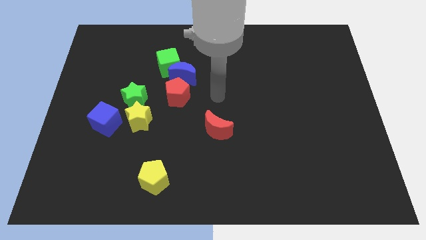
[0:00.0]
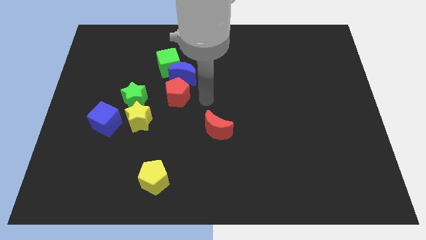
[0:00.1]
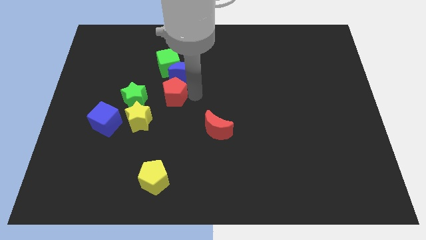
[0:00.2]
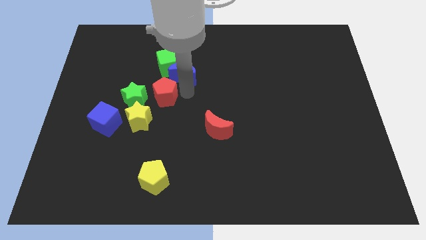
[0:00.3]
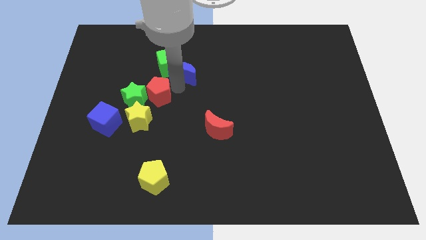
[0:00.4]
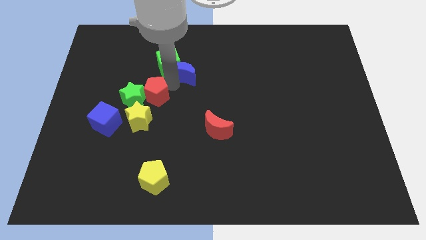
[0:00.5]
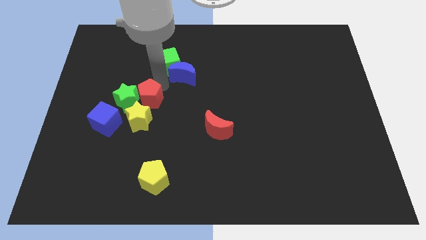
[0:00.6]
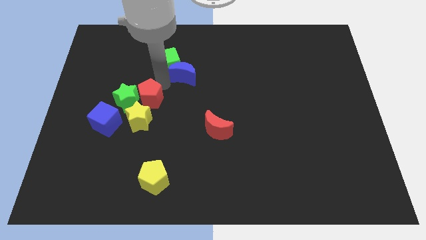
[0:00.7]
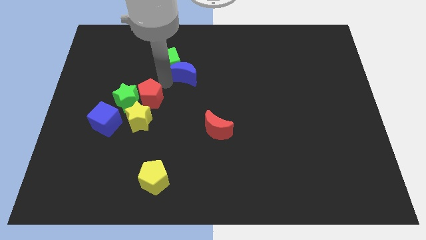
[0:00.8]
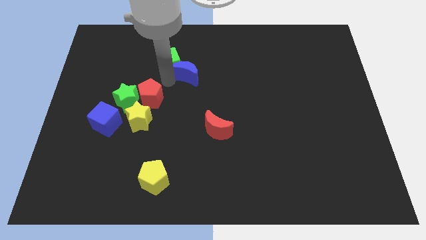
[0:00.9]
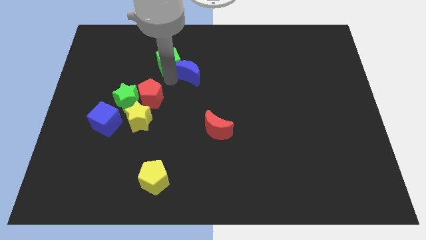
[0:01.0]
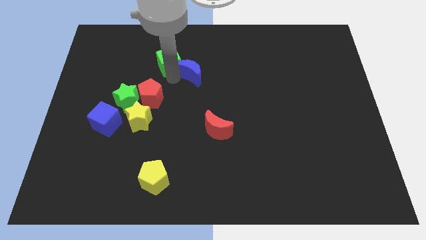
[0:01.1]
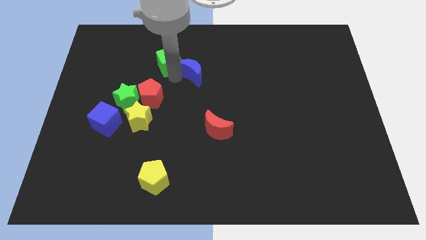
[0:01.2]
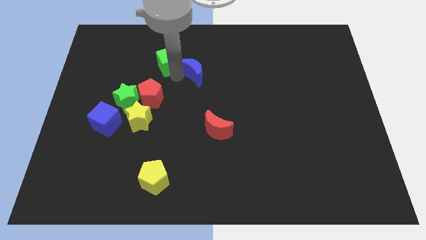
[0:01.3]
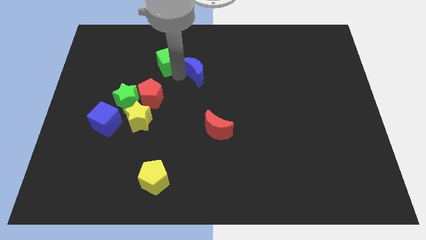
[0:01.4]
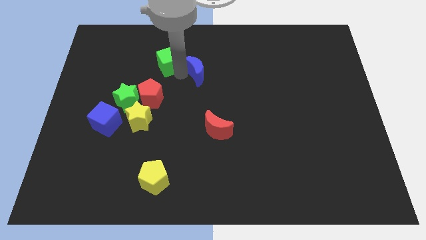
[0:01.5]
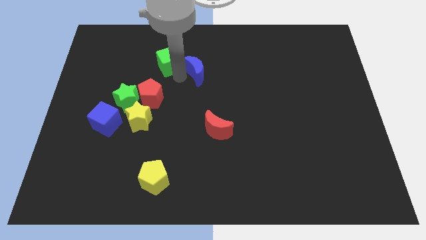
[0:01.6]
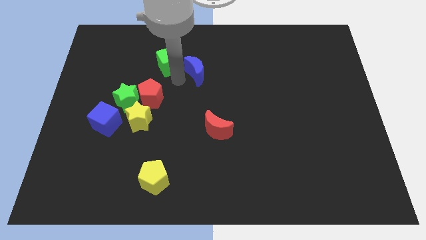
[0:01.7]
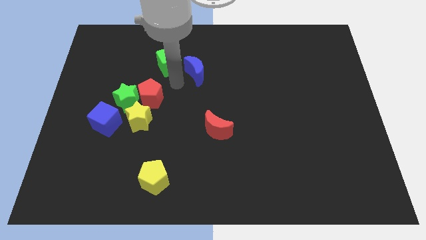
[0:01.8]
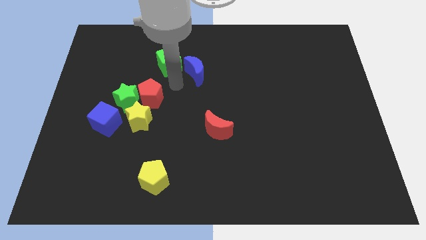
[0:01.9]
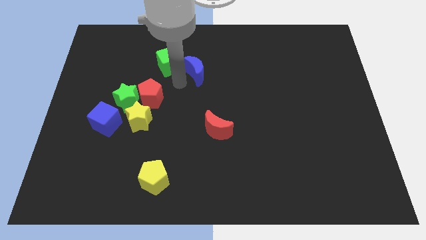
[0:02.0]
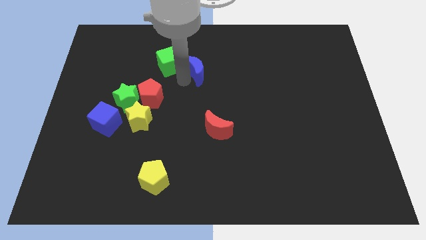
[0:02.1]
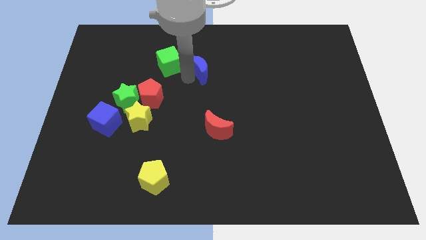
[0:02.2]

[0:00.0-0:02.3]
pull the blue moon apart from the green cube and red pentagon

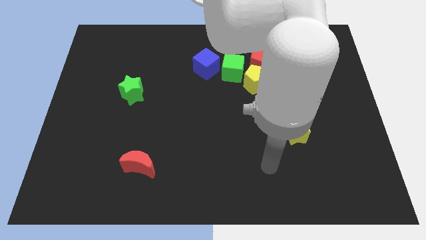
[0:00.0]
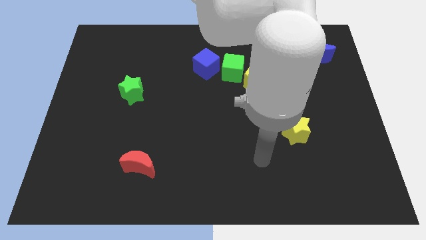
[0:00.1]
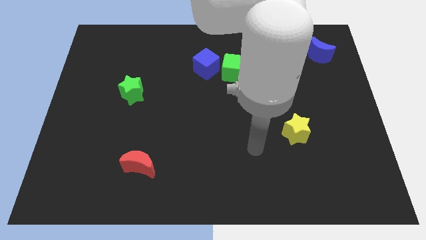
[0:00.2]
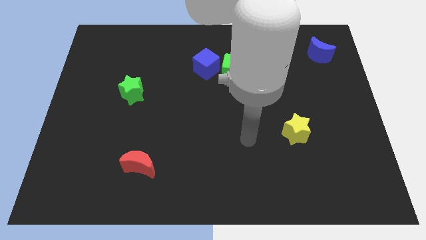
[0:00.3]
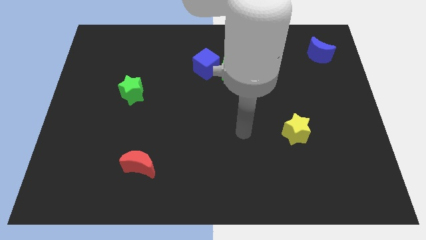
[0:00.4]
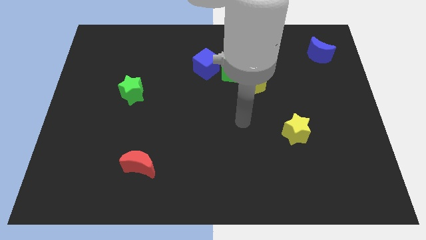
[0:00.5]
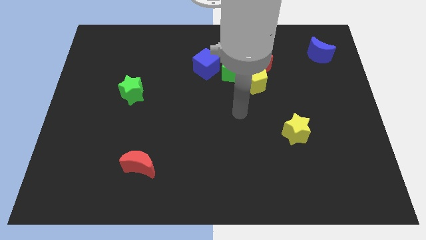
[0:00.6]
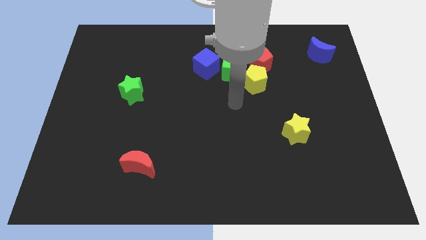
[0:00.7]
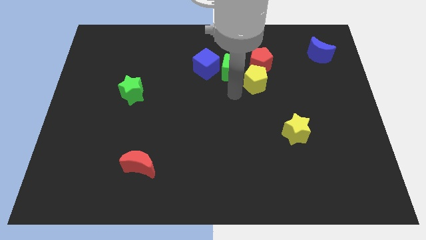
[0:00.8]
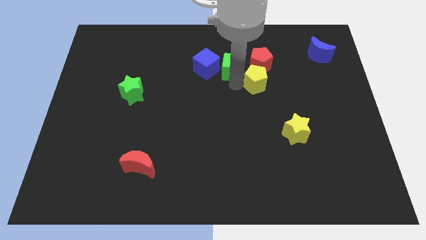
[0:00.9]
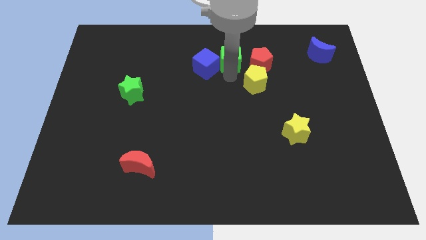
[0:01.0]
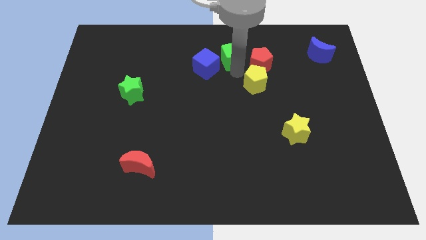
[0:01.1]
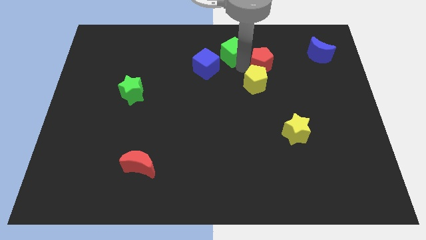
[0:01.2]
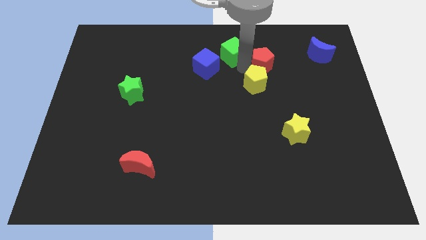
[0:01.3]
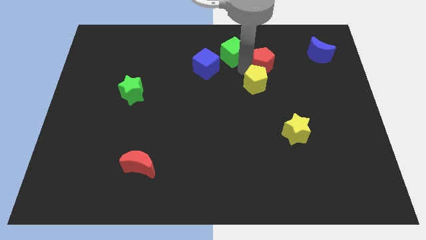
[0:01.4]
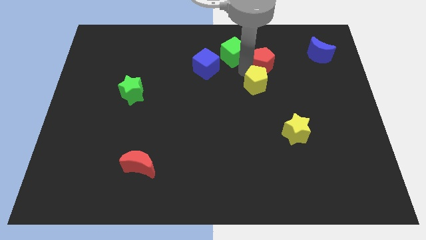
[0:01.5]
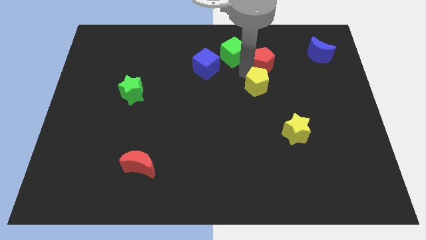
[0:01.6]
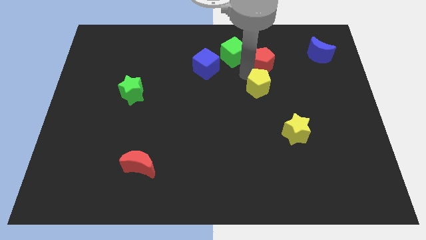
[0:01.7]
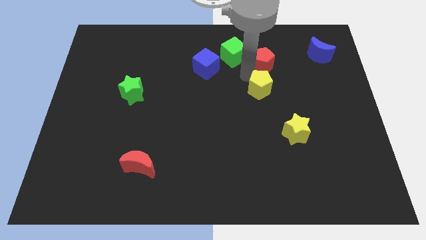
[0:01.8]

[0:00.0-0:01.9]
move the yellow pentagon away from the red pentagon and green cube

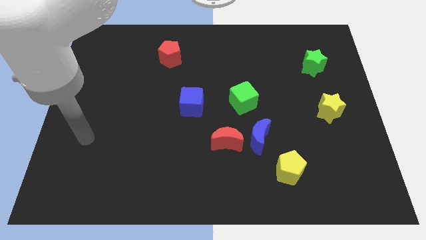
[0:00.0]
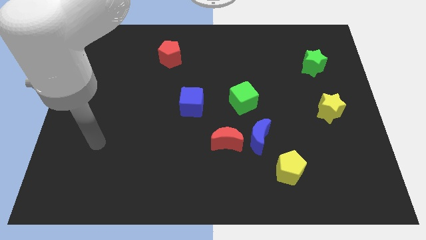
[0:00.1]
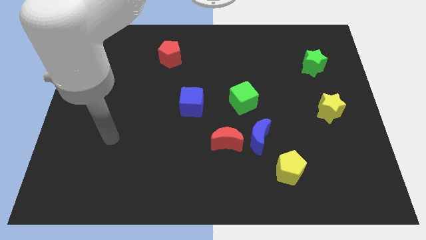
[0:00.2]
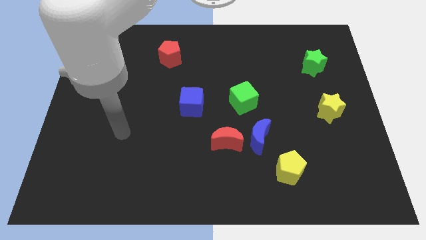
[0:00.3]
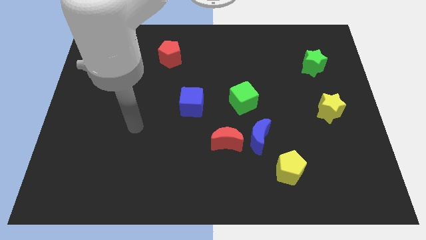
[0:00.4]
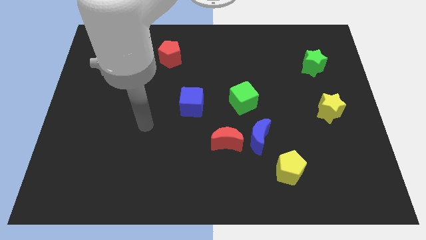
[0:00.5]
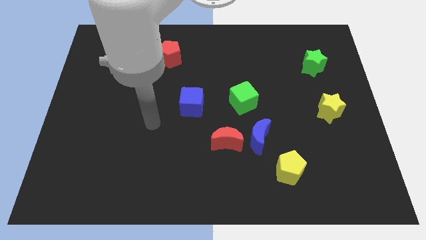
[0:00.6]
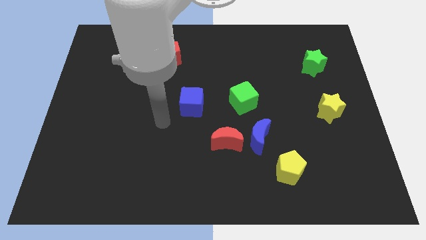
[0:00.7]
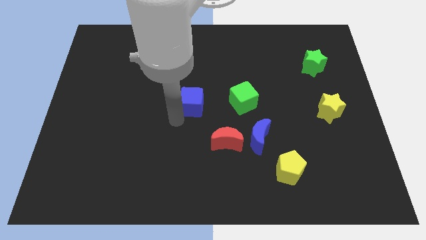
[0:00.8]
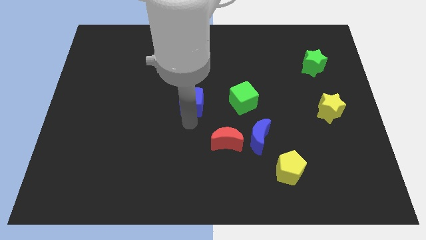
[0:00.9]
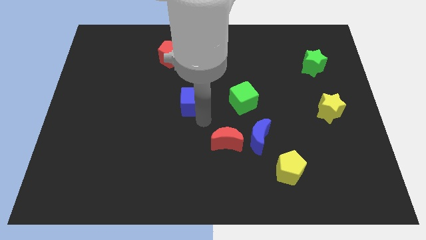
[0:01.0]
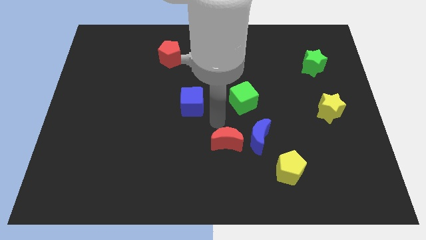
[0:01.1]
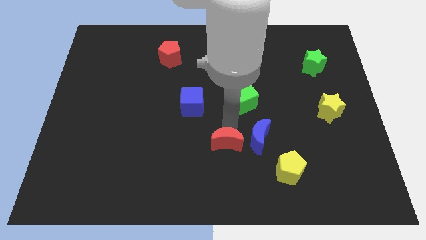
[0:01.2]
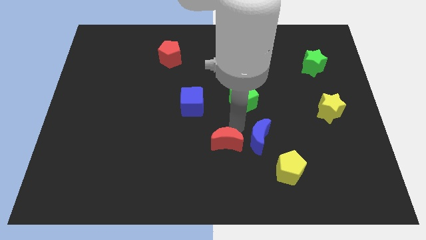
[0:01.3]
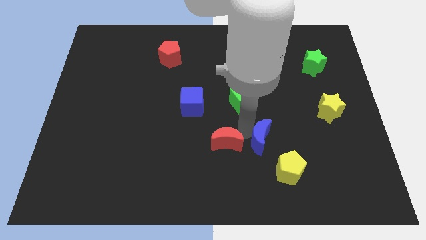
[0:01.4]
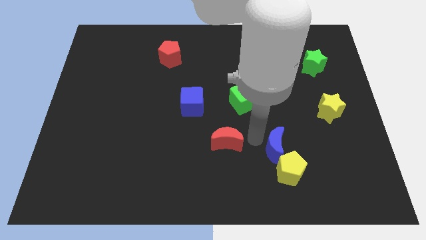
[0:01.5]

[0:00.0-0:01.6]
move the red moon away from the blue moon

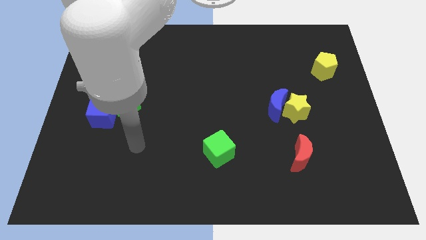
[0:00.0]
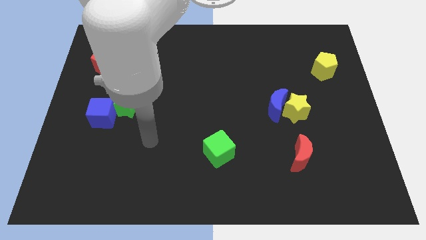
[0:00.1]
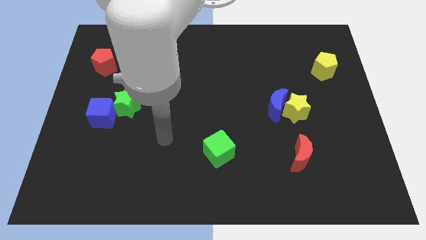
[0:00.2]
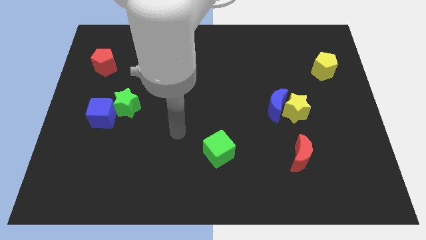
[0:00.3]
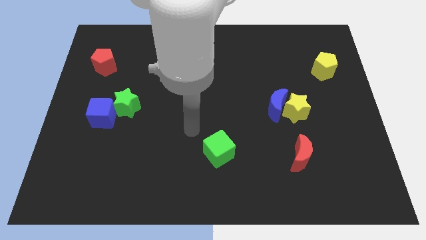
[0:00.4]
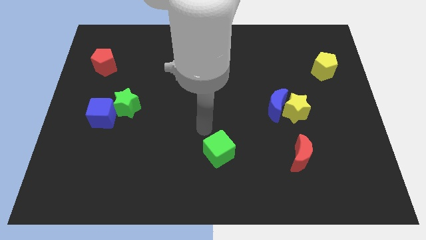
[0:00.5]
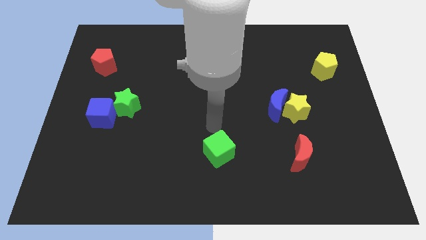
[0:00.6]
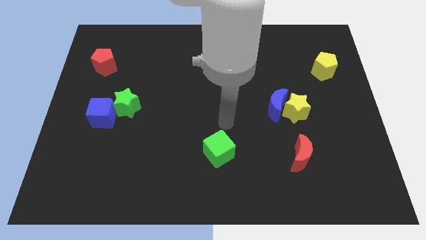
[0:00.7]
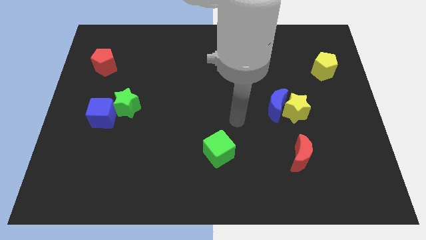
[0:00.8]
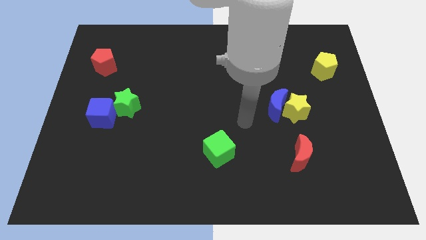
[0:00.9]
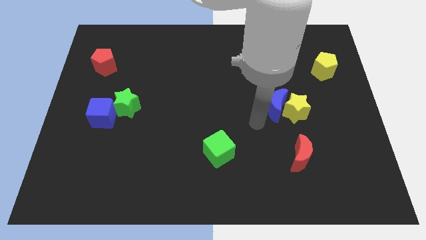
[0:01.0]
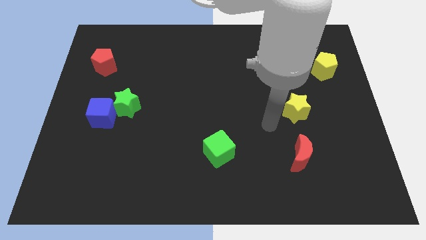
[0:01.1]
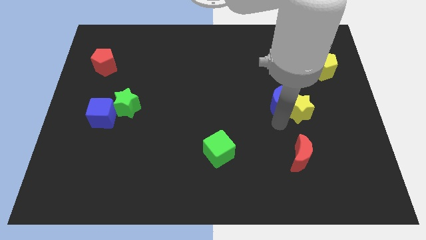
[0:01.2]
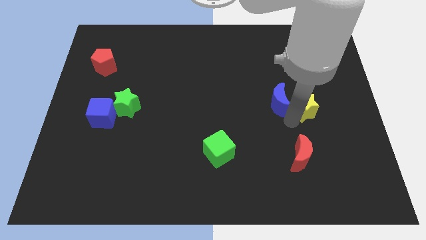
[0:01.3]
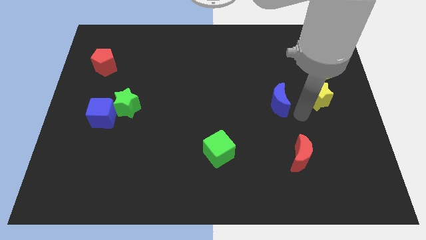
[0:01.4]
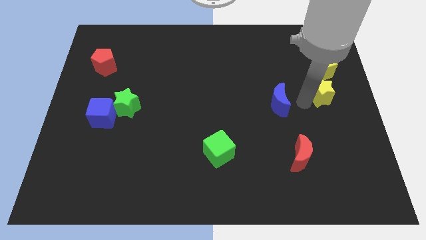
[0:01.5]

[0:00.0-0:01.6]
separate the blue moon from the yellow star

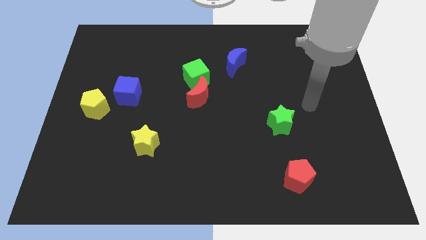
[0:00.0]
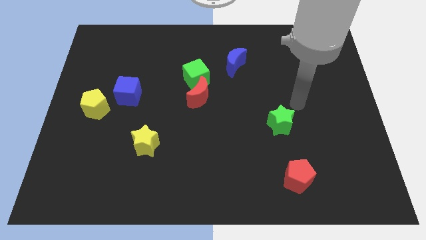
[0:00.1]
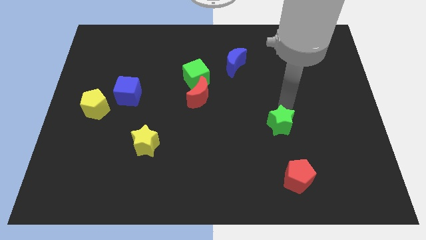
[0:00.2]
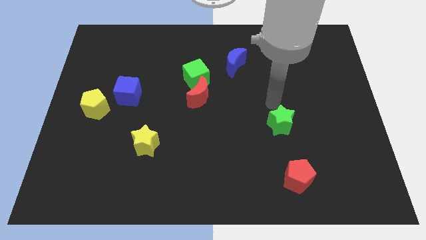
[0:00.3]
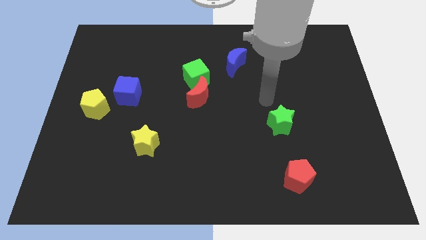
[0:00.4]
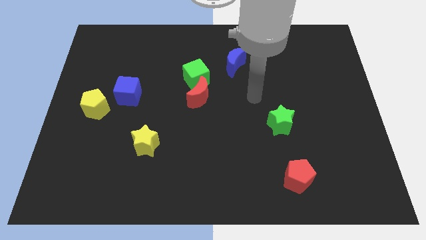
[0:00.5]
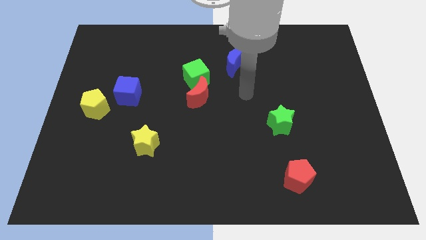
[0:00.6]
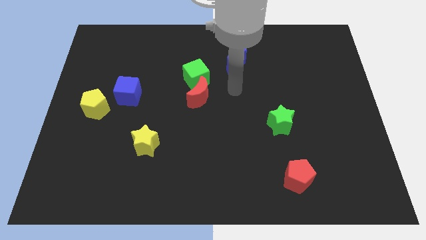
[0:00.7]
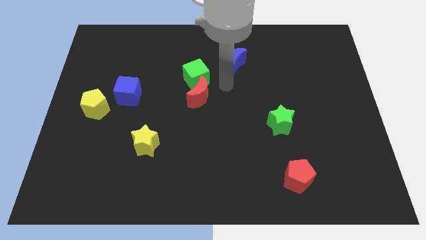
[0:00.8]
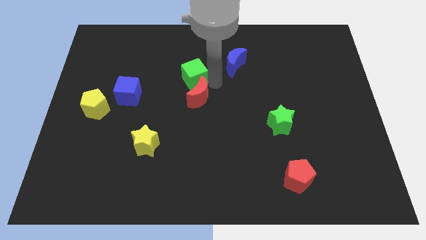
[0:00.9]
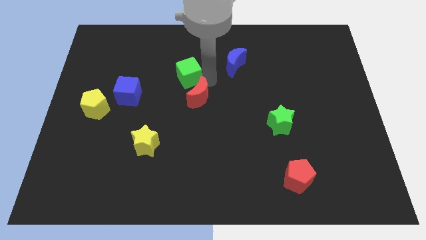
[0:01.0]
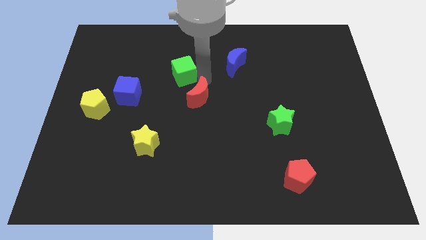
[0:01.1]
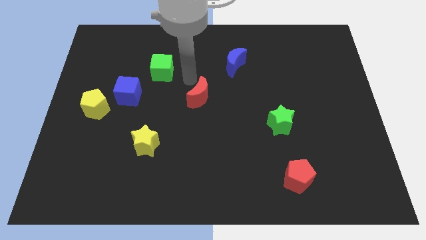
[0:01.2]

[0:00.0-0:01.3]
pull the red moon apart from the green cube

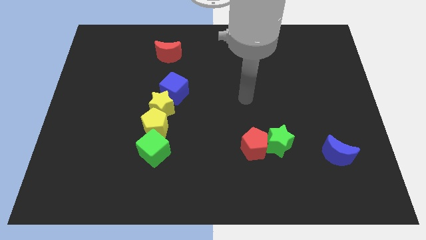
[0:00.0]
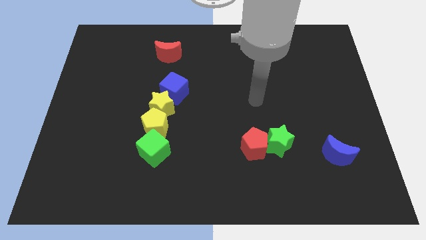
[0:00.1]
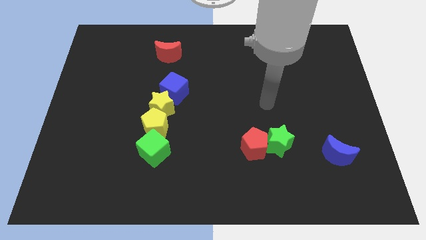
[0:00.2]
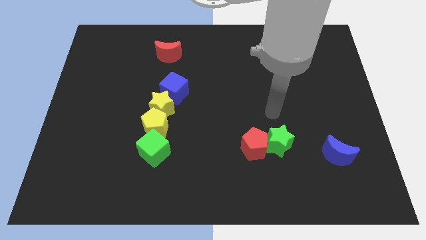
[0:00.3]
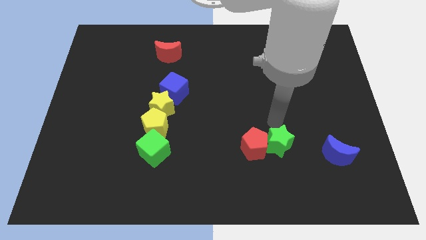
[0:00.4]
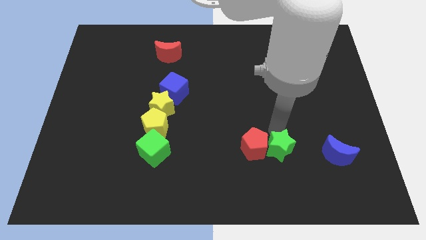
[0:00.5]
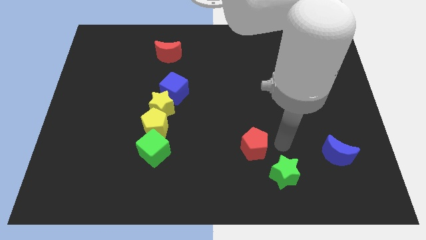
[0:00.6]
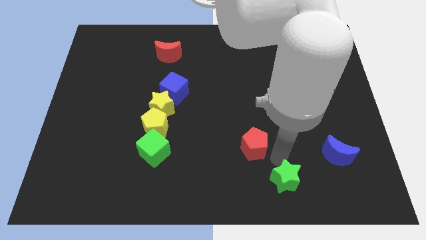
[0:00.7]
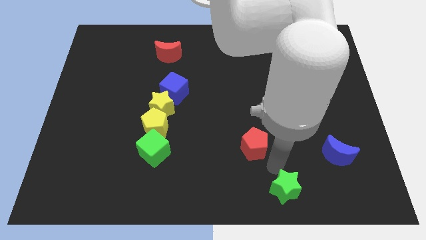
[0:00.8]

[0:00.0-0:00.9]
separate the red pentagon from the green star
